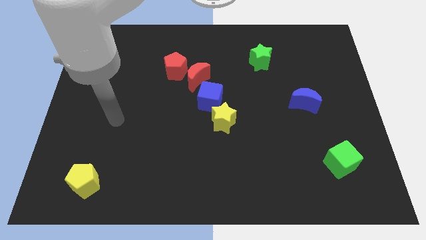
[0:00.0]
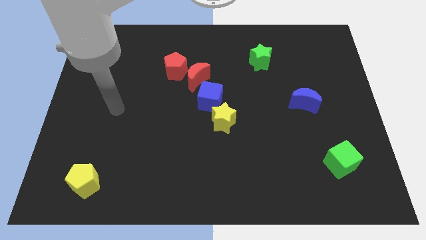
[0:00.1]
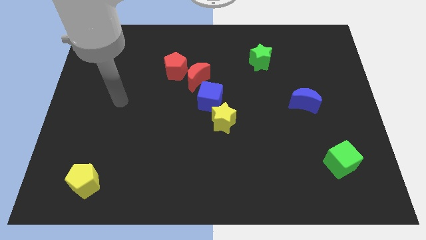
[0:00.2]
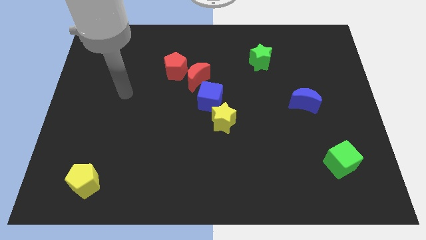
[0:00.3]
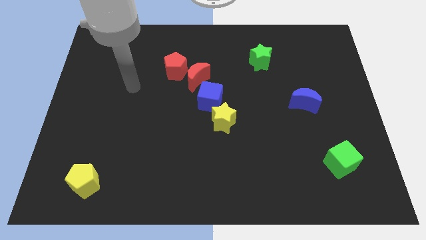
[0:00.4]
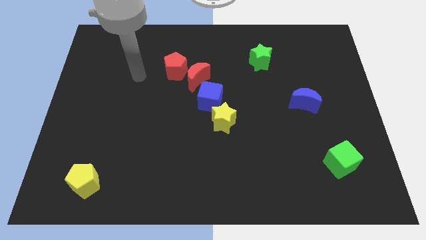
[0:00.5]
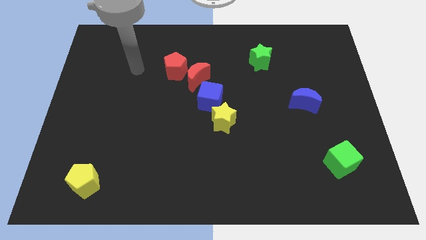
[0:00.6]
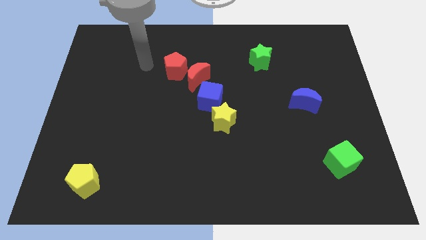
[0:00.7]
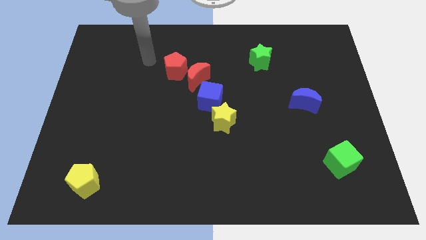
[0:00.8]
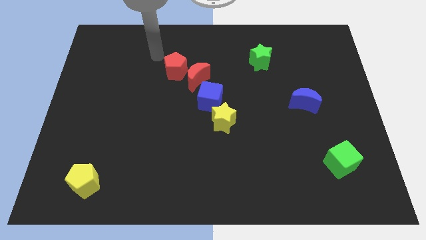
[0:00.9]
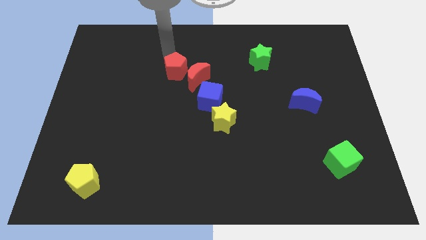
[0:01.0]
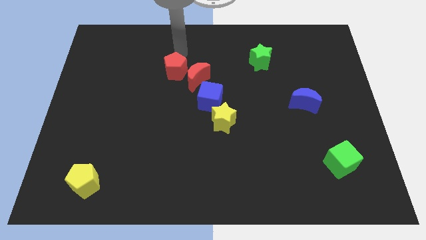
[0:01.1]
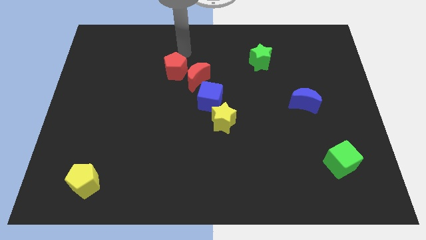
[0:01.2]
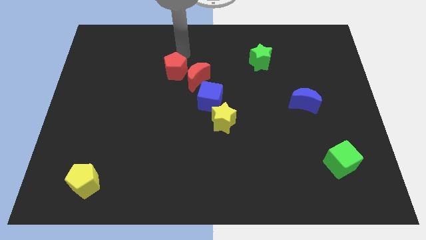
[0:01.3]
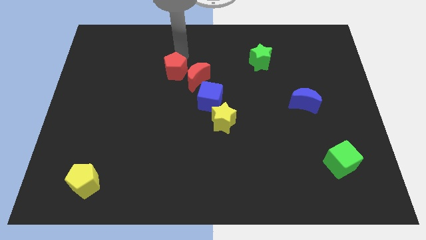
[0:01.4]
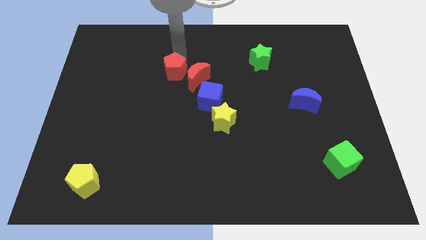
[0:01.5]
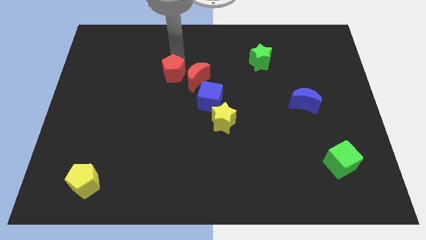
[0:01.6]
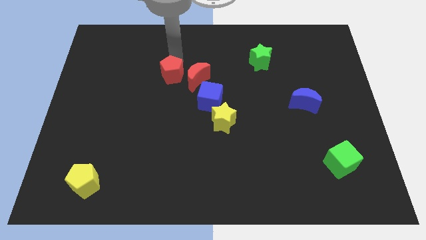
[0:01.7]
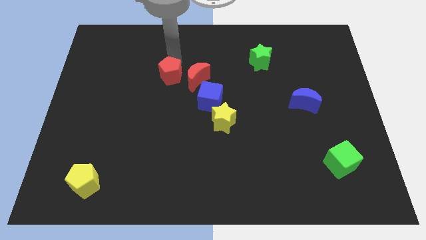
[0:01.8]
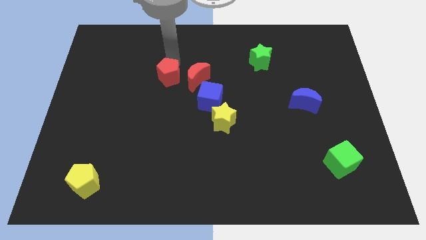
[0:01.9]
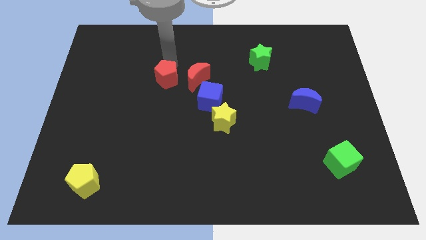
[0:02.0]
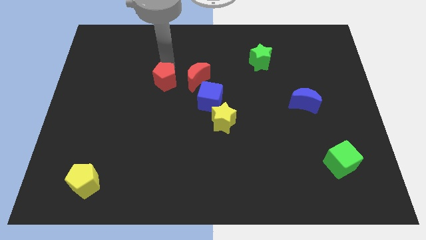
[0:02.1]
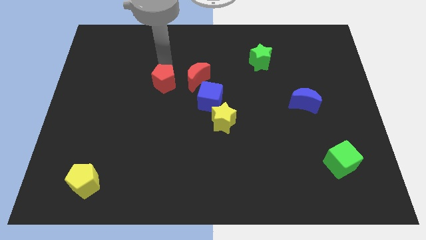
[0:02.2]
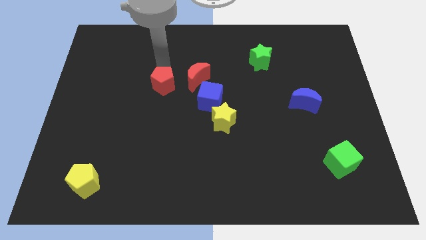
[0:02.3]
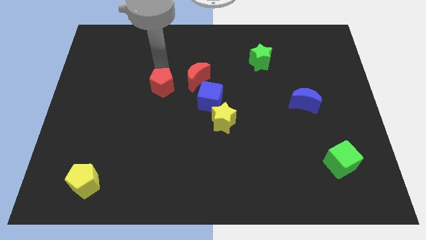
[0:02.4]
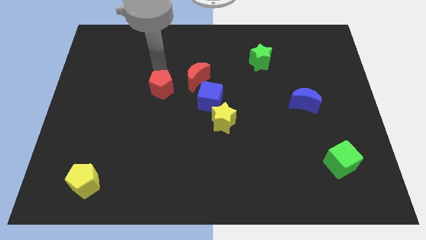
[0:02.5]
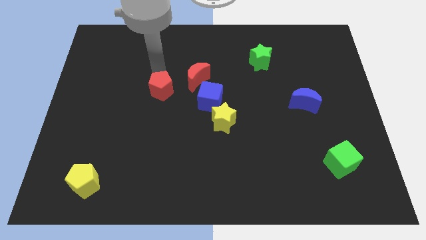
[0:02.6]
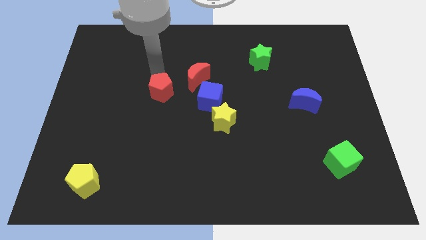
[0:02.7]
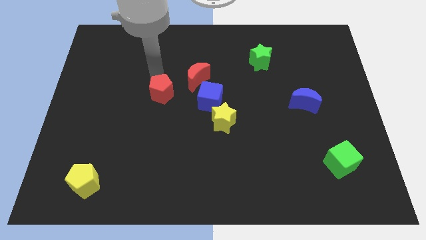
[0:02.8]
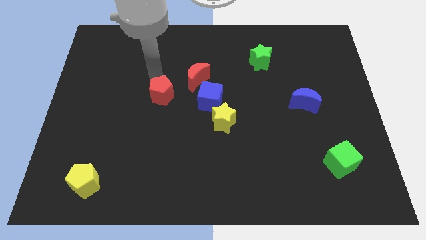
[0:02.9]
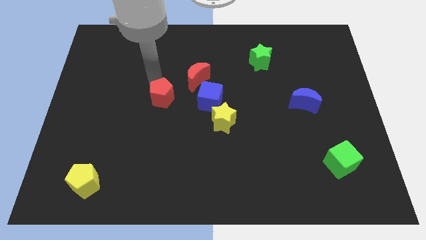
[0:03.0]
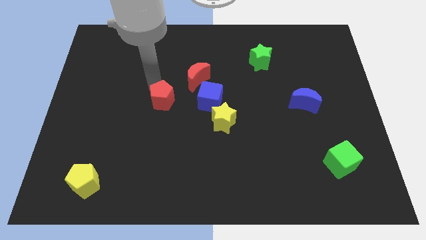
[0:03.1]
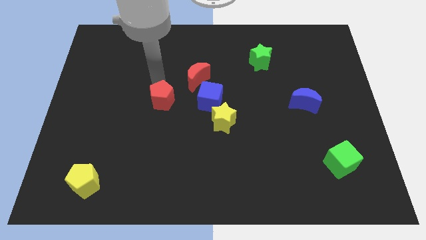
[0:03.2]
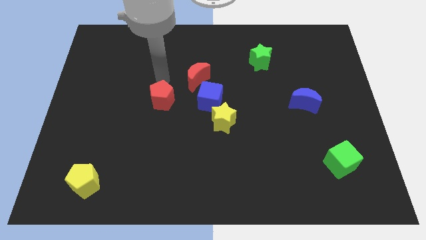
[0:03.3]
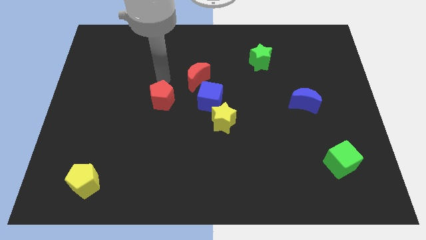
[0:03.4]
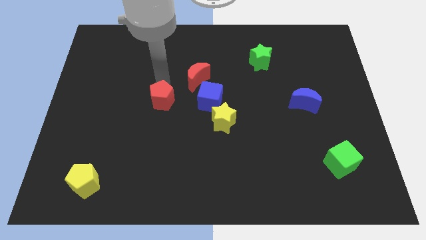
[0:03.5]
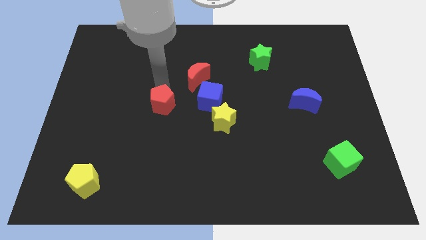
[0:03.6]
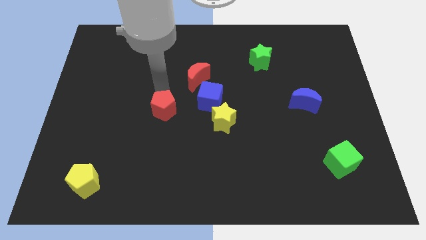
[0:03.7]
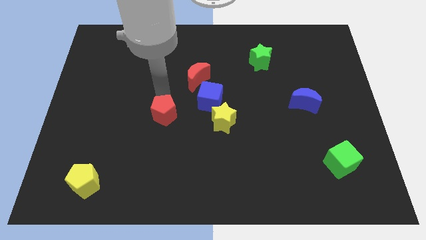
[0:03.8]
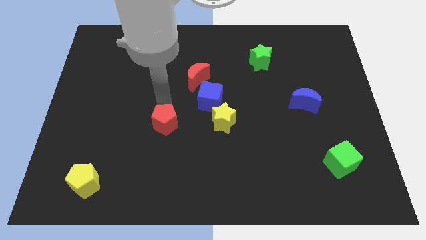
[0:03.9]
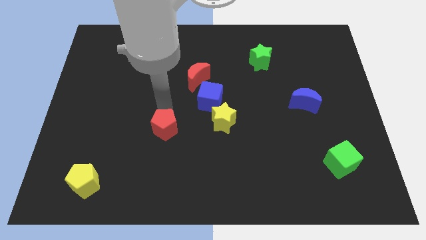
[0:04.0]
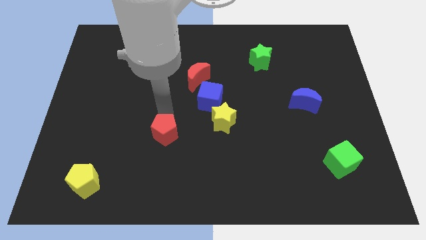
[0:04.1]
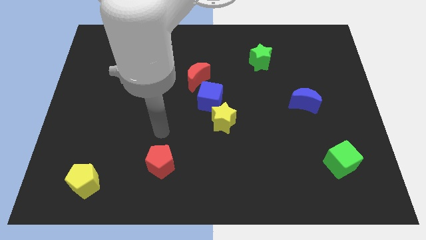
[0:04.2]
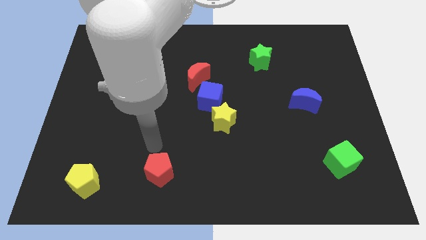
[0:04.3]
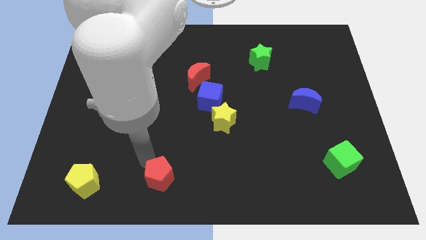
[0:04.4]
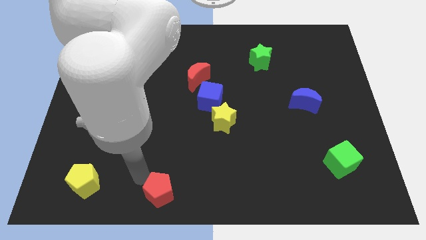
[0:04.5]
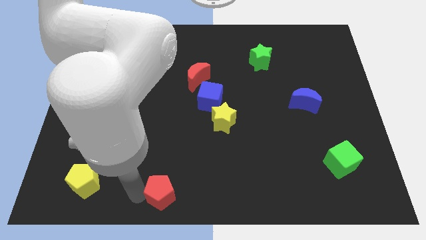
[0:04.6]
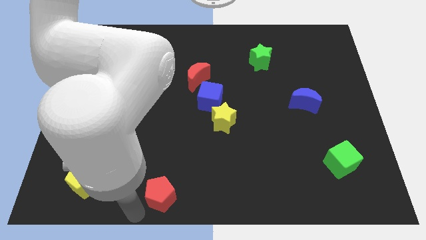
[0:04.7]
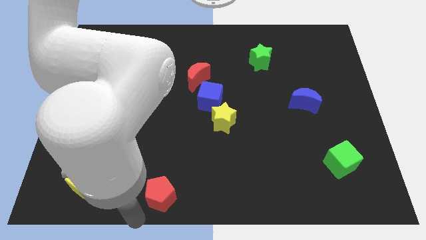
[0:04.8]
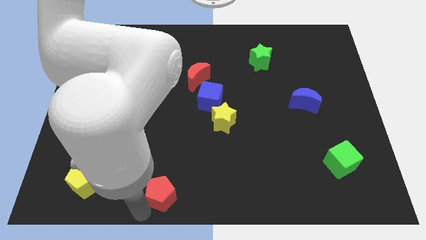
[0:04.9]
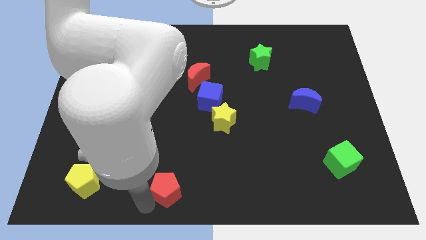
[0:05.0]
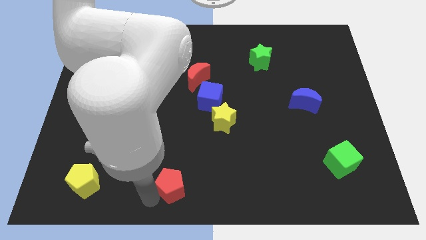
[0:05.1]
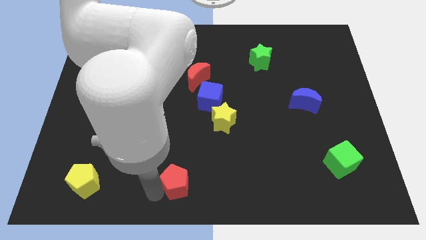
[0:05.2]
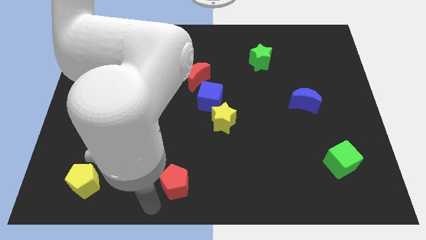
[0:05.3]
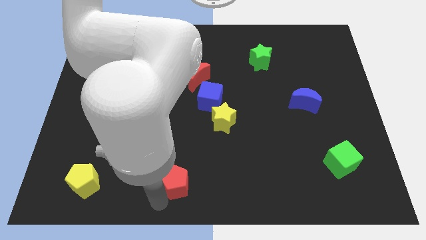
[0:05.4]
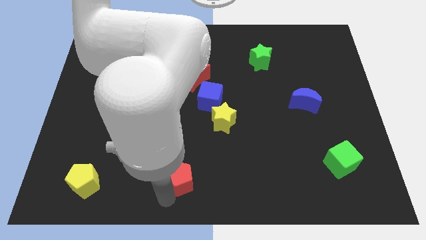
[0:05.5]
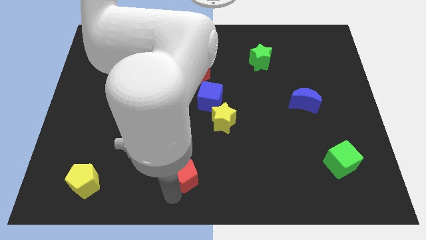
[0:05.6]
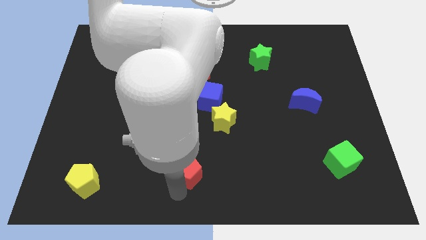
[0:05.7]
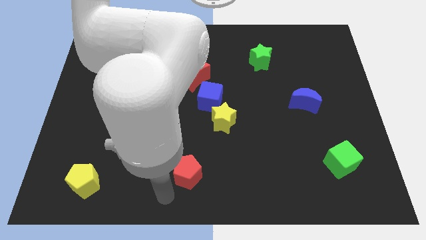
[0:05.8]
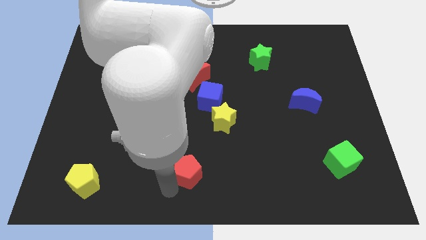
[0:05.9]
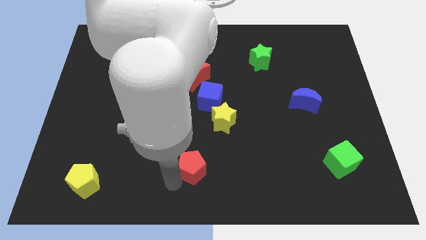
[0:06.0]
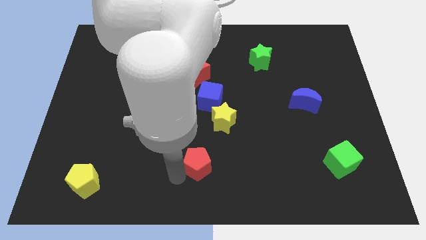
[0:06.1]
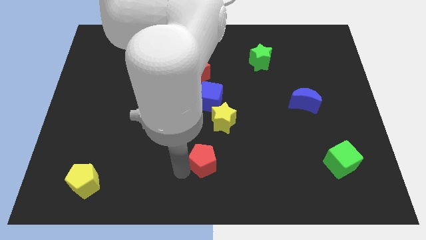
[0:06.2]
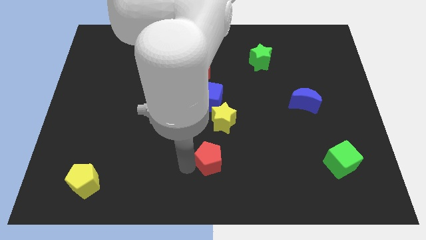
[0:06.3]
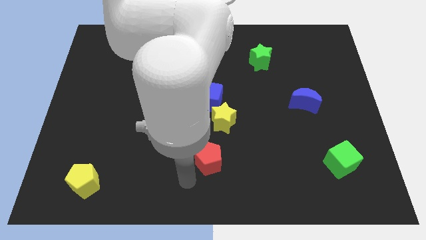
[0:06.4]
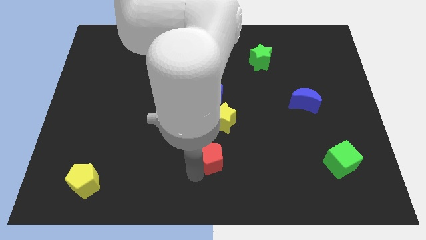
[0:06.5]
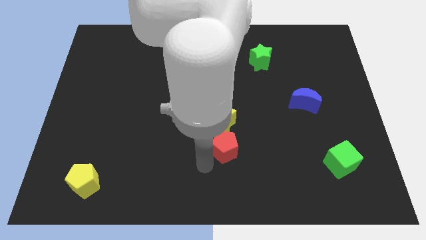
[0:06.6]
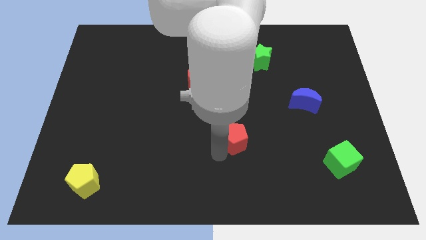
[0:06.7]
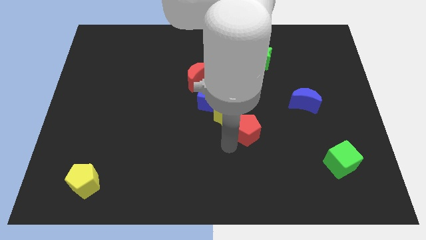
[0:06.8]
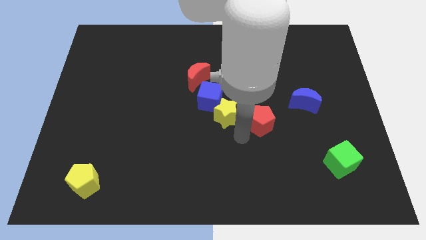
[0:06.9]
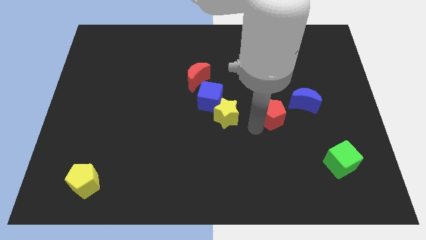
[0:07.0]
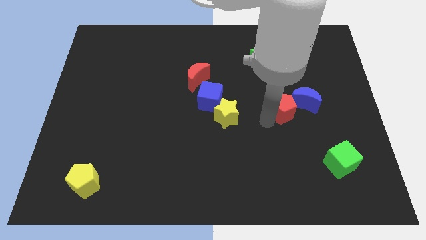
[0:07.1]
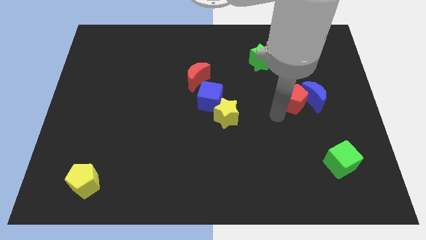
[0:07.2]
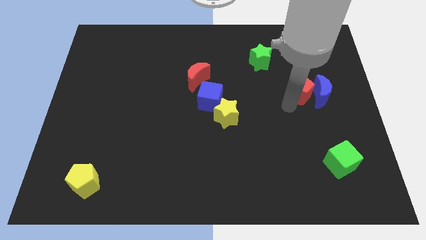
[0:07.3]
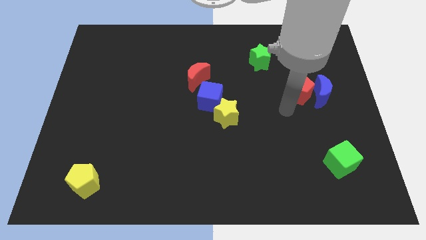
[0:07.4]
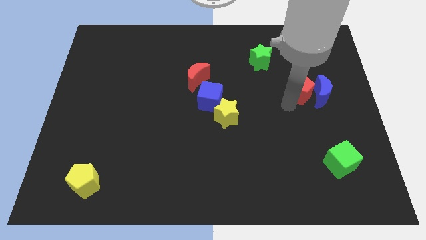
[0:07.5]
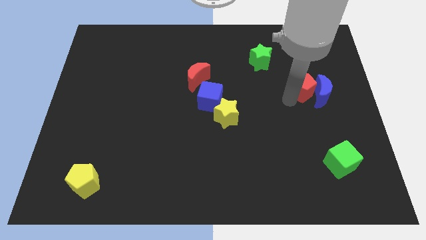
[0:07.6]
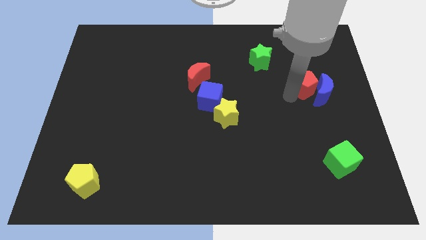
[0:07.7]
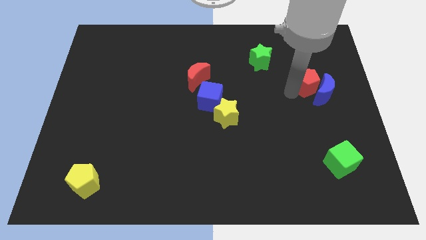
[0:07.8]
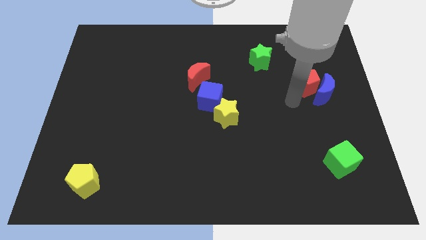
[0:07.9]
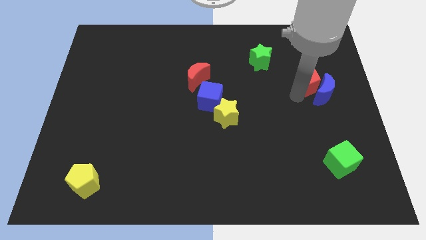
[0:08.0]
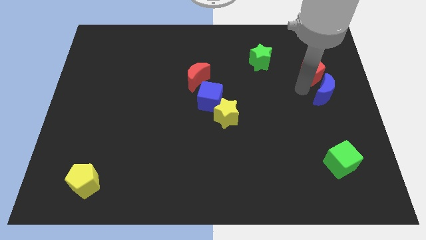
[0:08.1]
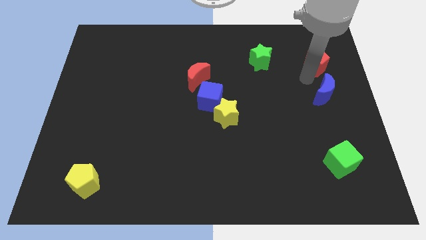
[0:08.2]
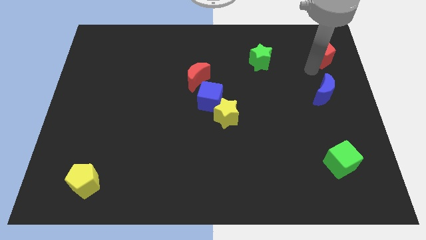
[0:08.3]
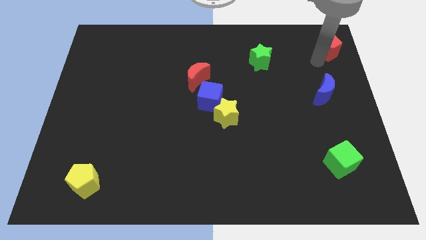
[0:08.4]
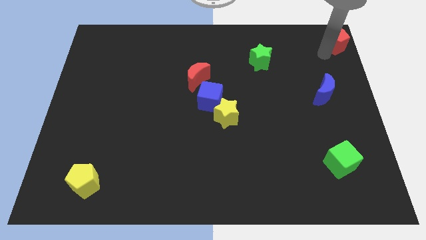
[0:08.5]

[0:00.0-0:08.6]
push the red pentagon to the top right of the board
